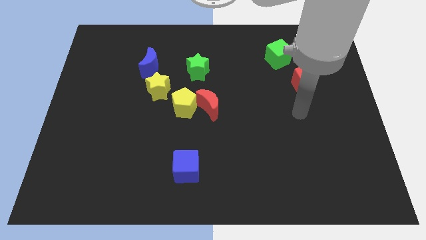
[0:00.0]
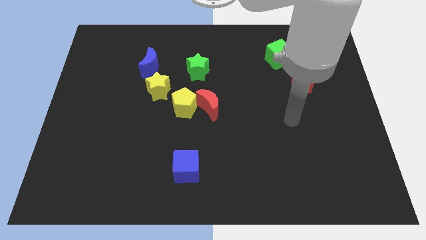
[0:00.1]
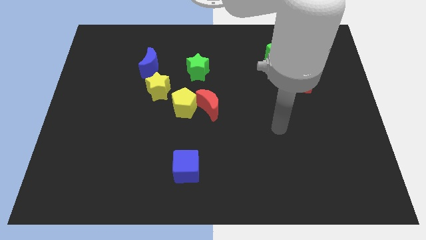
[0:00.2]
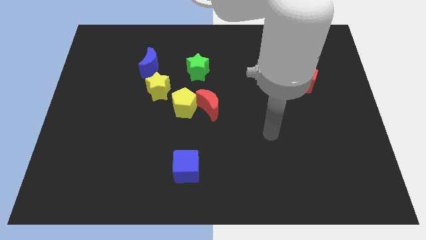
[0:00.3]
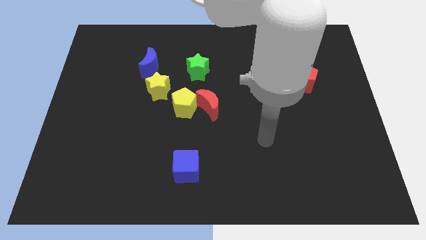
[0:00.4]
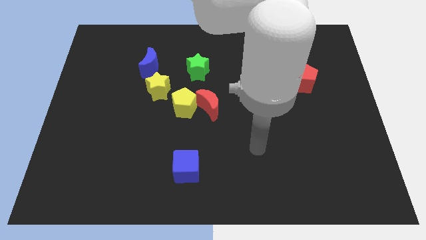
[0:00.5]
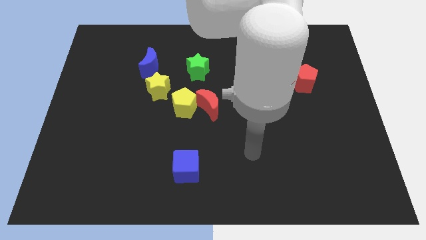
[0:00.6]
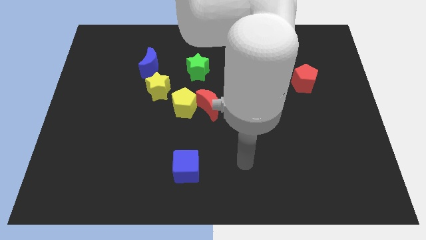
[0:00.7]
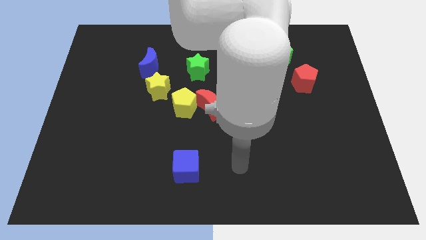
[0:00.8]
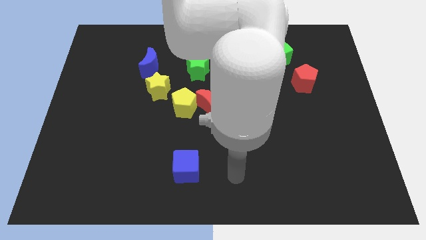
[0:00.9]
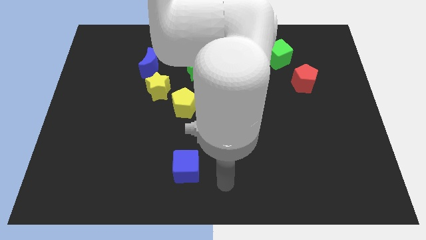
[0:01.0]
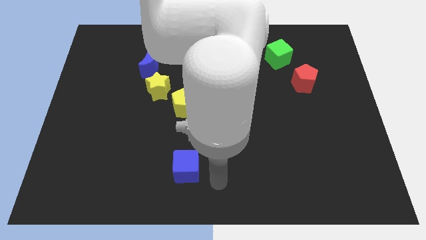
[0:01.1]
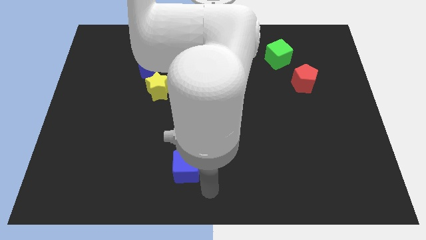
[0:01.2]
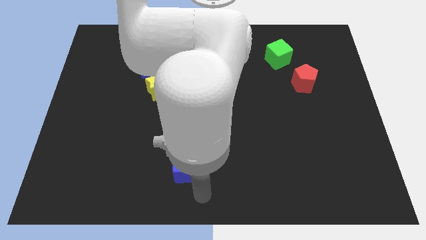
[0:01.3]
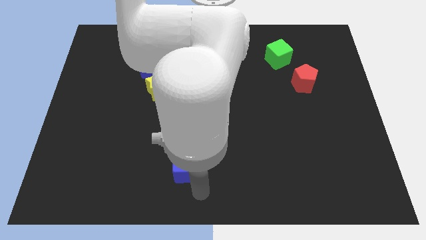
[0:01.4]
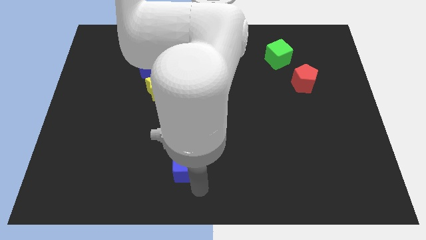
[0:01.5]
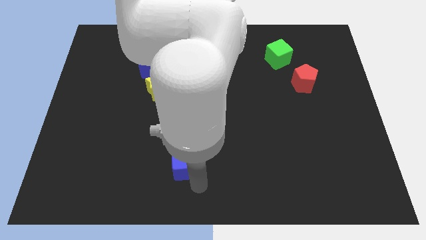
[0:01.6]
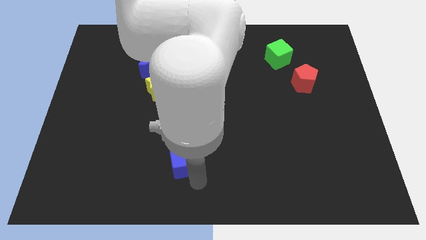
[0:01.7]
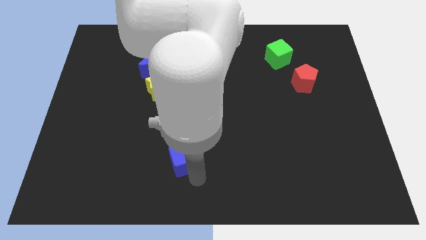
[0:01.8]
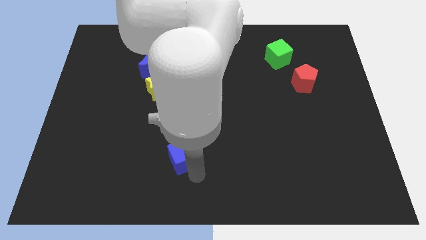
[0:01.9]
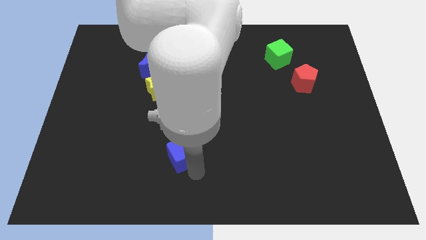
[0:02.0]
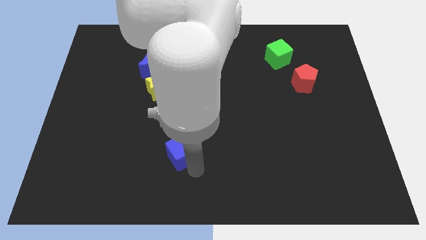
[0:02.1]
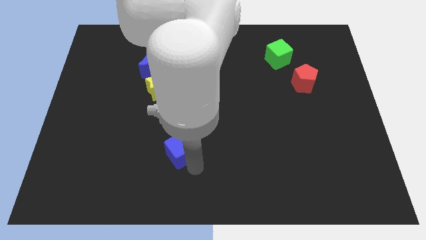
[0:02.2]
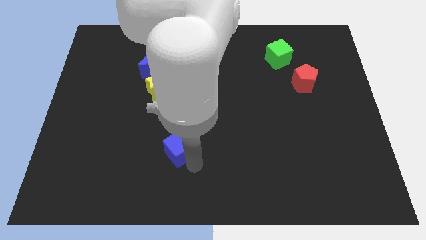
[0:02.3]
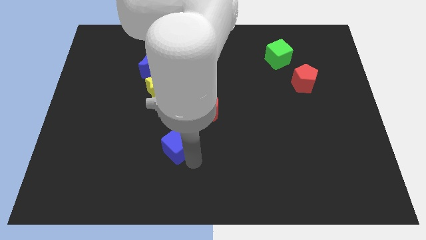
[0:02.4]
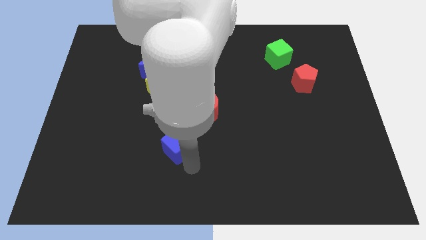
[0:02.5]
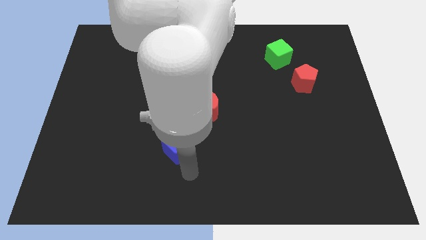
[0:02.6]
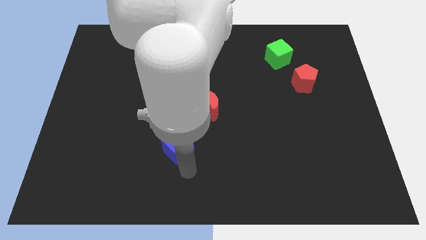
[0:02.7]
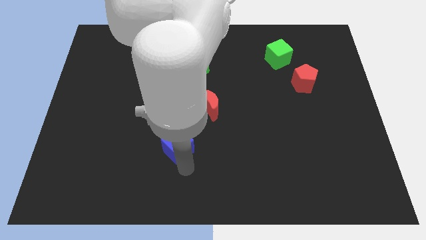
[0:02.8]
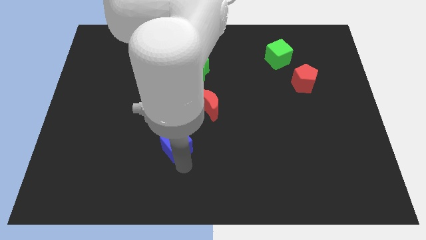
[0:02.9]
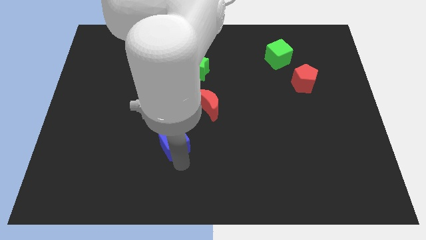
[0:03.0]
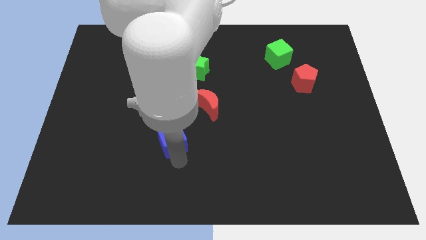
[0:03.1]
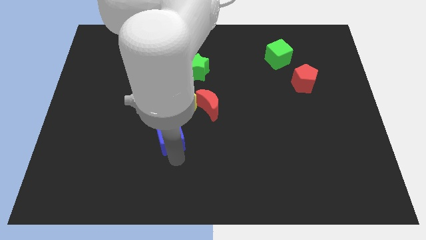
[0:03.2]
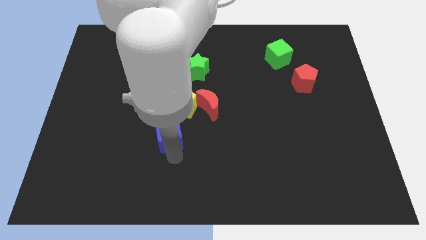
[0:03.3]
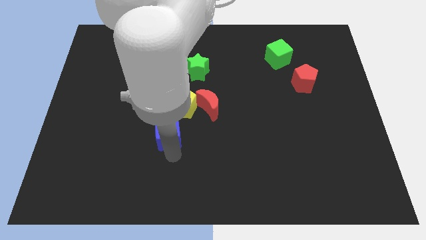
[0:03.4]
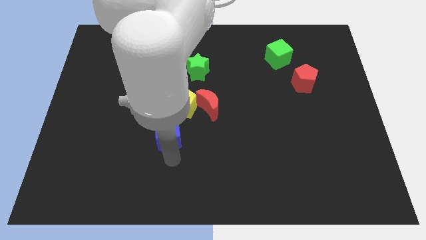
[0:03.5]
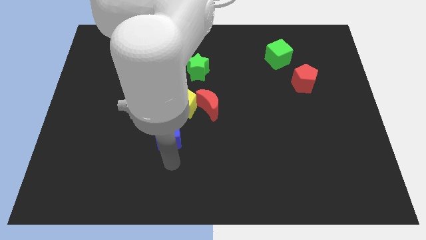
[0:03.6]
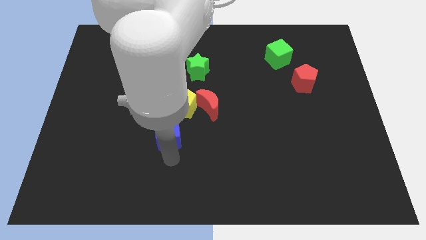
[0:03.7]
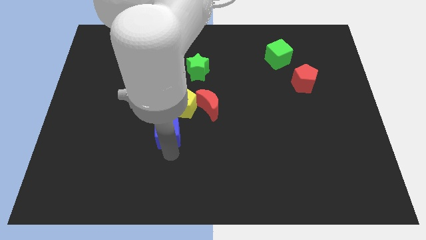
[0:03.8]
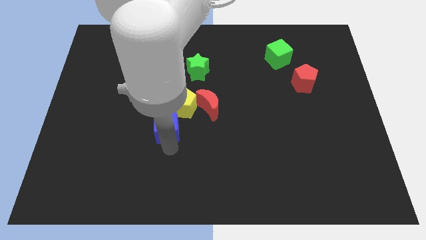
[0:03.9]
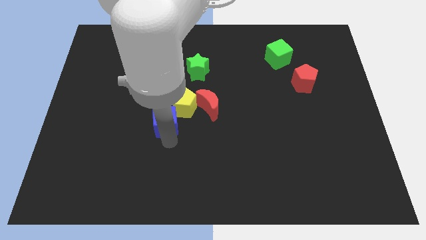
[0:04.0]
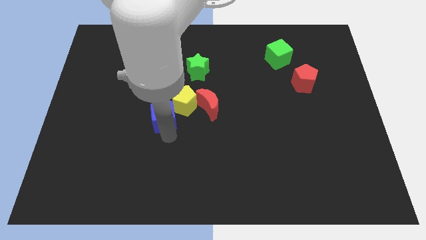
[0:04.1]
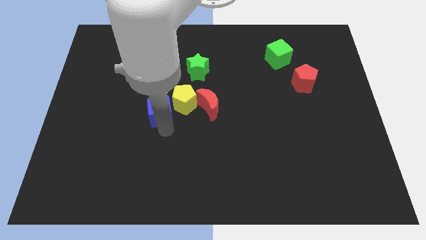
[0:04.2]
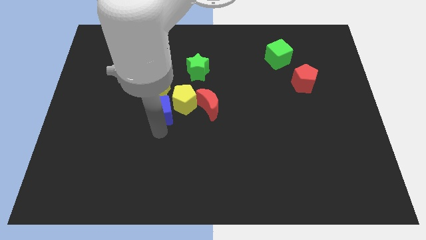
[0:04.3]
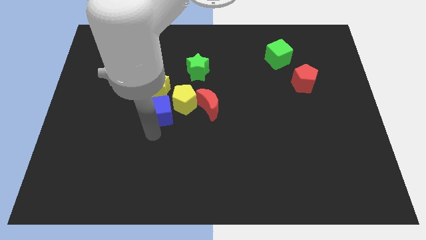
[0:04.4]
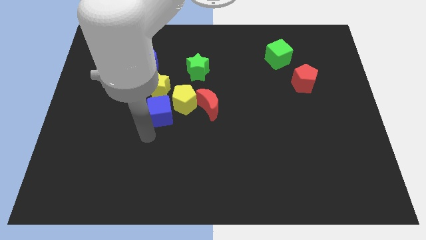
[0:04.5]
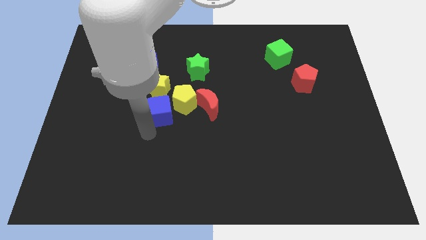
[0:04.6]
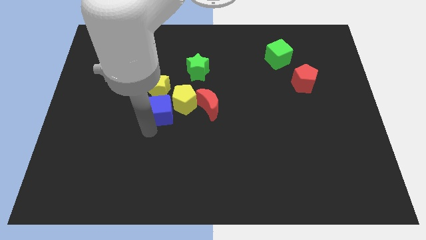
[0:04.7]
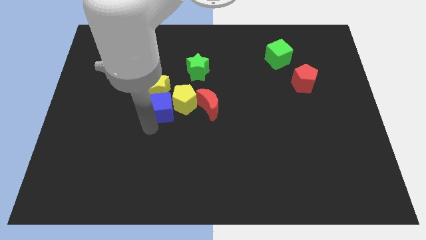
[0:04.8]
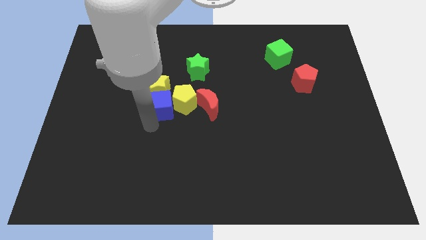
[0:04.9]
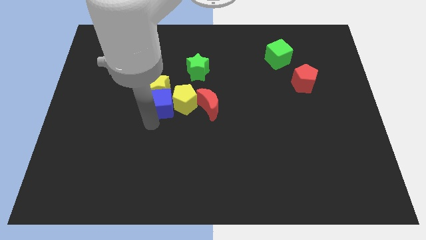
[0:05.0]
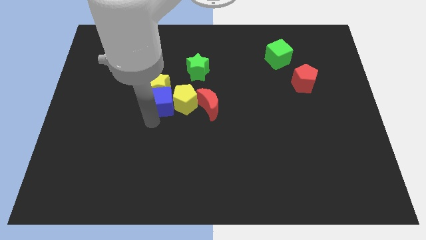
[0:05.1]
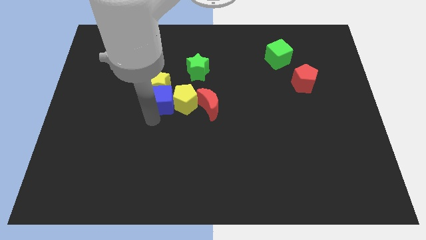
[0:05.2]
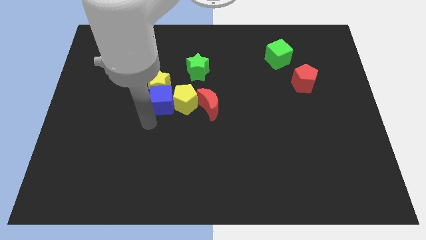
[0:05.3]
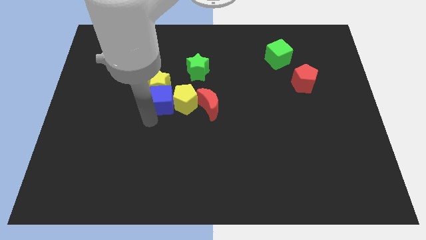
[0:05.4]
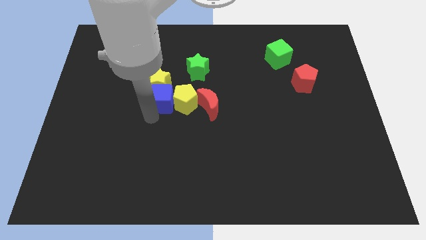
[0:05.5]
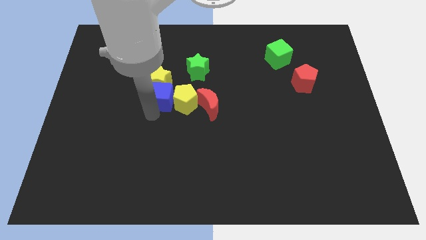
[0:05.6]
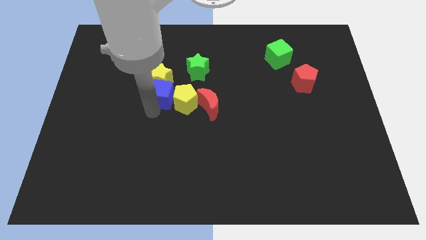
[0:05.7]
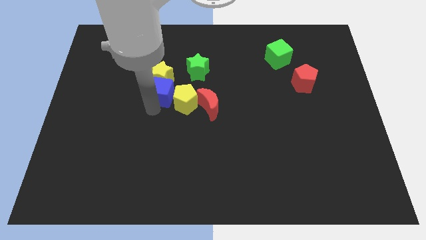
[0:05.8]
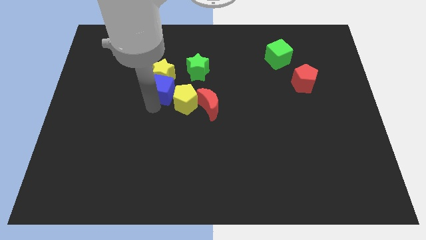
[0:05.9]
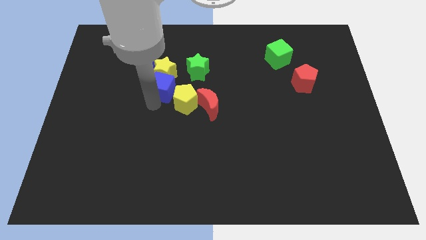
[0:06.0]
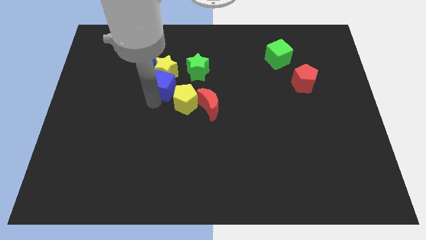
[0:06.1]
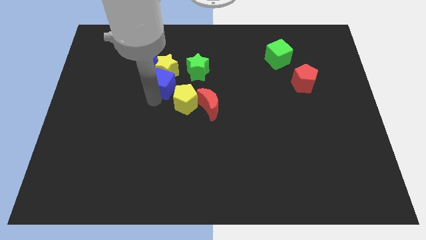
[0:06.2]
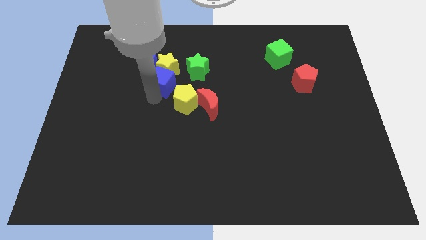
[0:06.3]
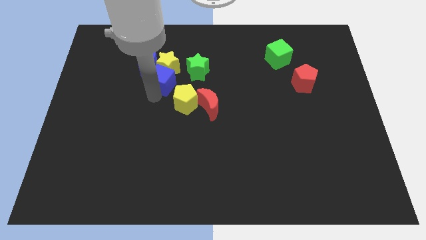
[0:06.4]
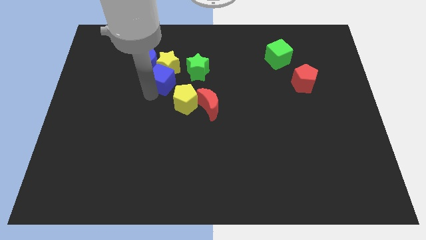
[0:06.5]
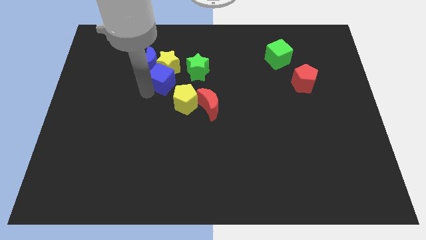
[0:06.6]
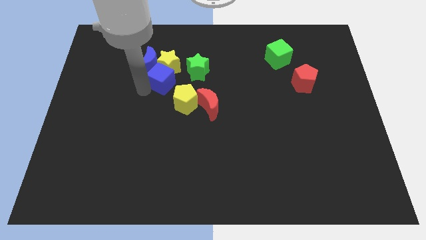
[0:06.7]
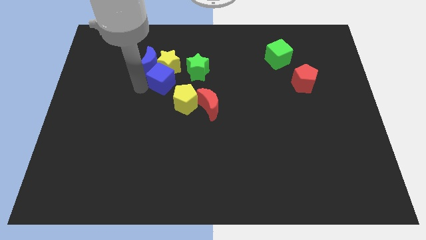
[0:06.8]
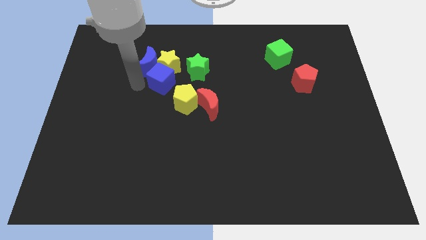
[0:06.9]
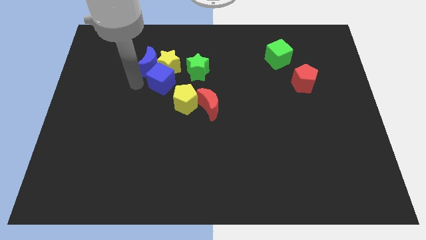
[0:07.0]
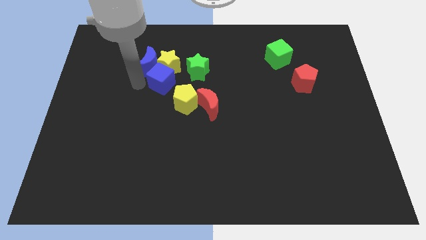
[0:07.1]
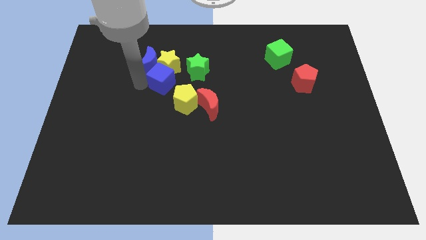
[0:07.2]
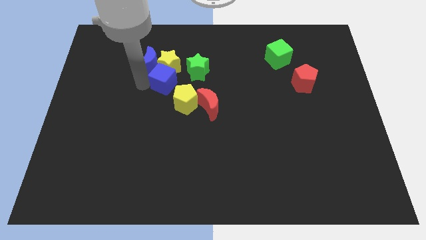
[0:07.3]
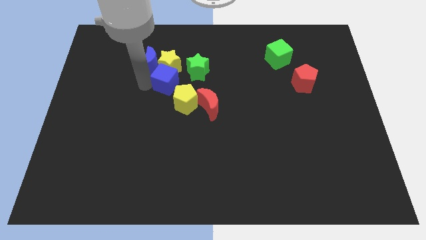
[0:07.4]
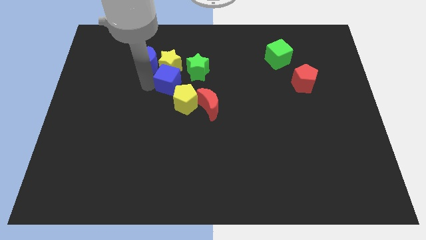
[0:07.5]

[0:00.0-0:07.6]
move the blue cube above the yellow pentagon
